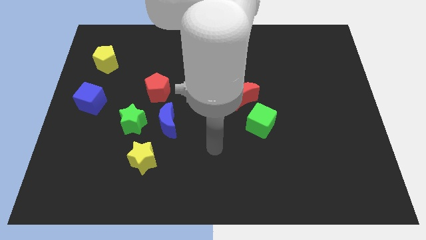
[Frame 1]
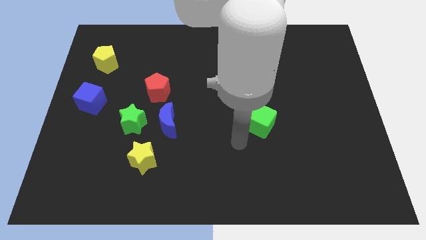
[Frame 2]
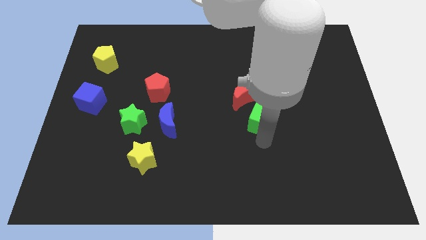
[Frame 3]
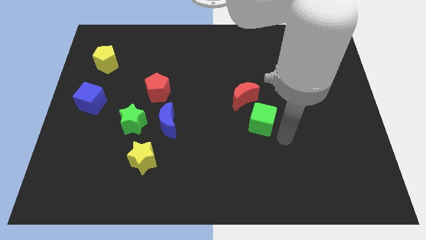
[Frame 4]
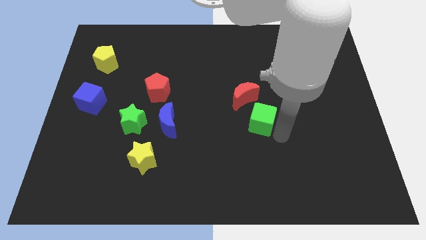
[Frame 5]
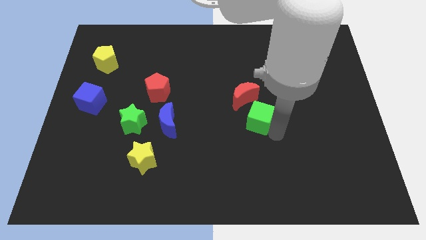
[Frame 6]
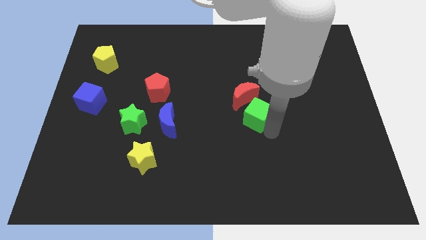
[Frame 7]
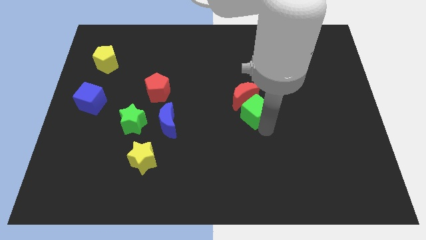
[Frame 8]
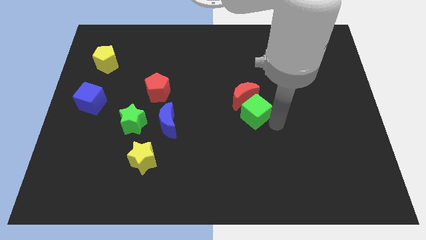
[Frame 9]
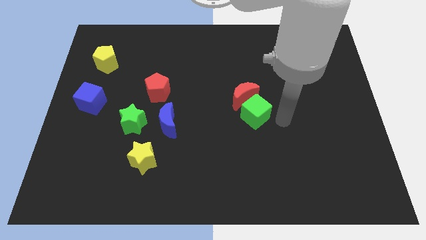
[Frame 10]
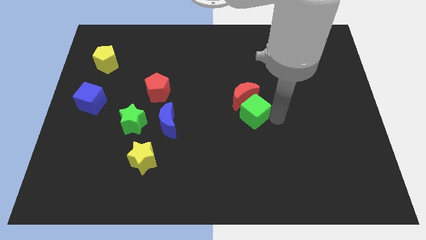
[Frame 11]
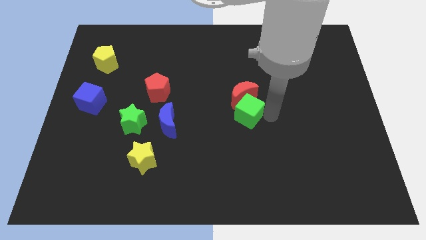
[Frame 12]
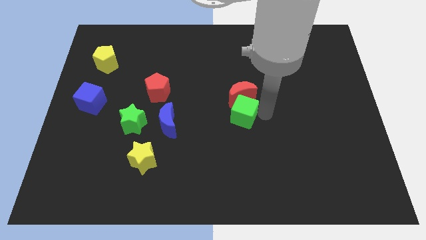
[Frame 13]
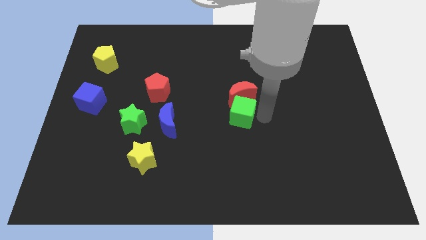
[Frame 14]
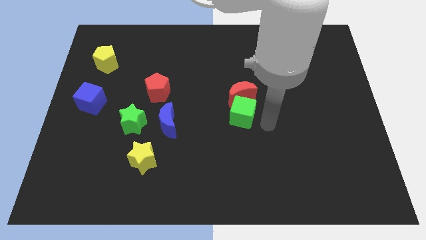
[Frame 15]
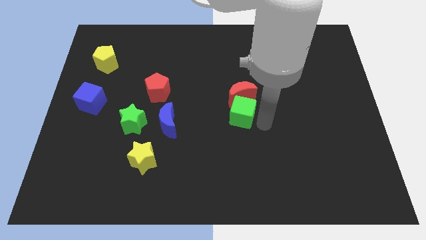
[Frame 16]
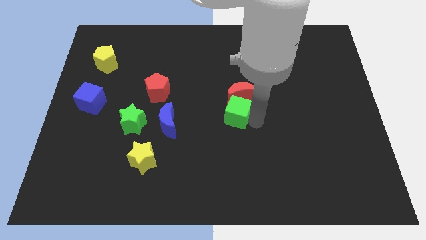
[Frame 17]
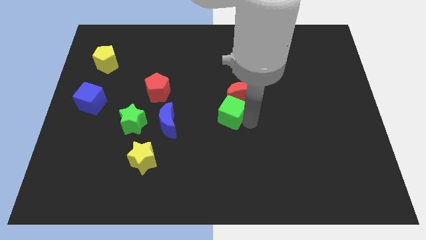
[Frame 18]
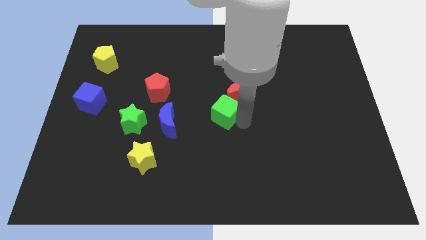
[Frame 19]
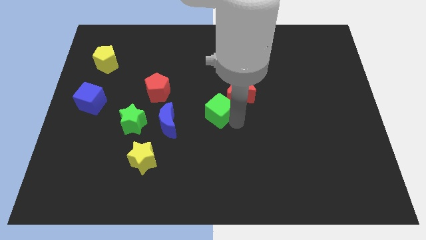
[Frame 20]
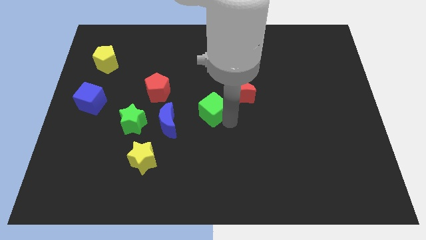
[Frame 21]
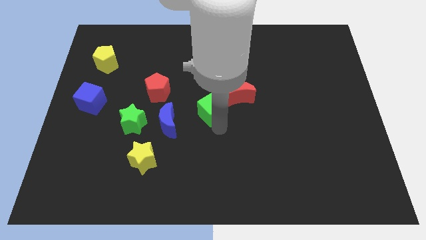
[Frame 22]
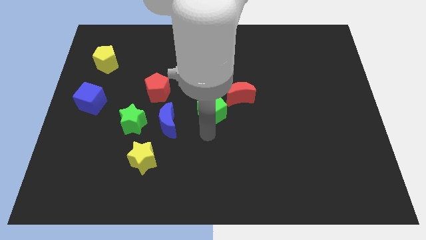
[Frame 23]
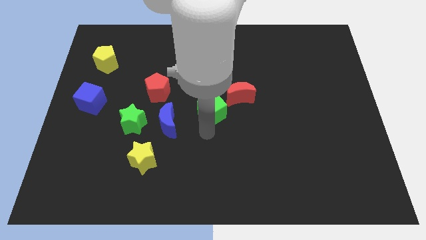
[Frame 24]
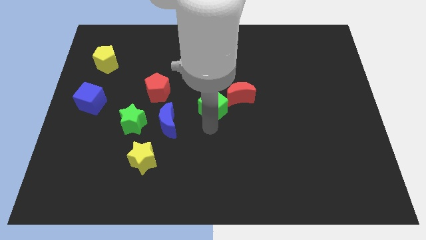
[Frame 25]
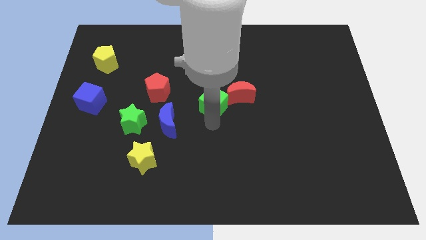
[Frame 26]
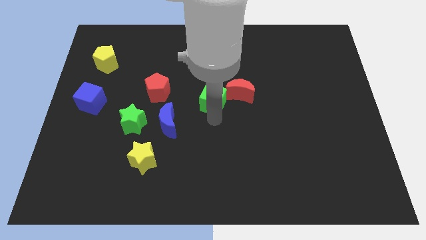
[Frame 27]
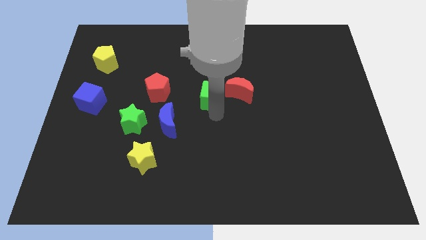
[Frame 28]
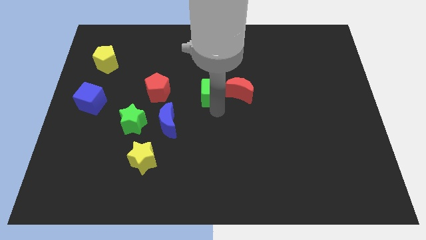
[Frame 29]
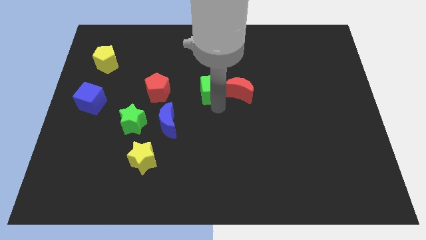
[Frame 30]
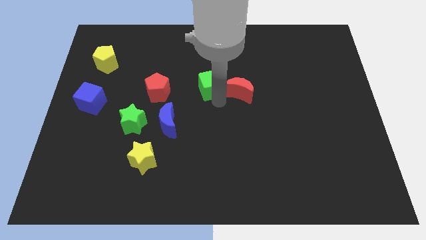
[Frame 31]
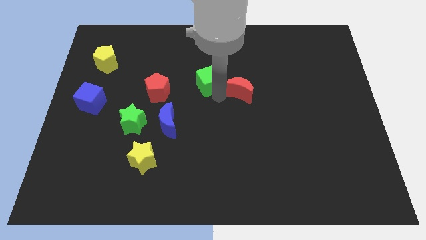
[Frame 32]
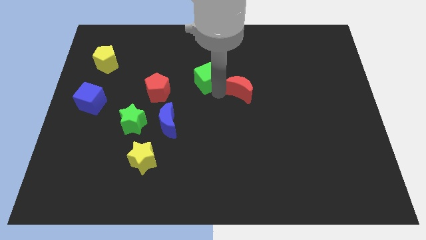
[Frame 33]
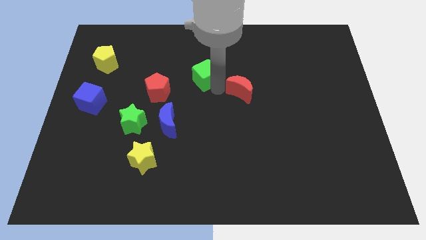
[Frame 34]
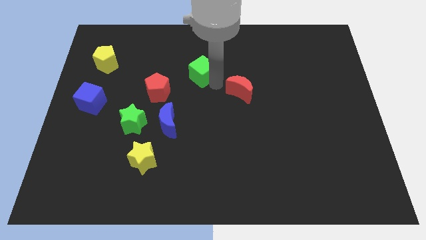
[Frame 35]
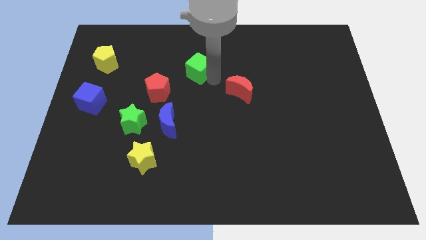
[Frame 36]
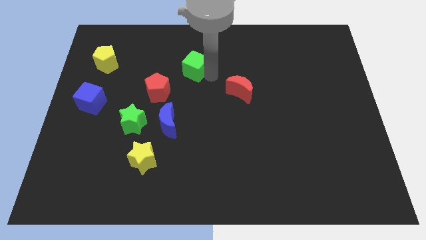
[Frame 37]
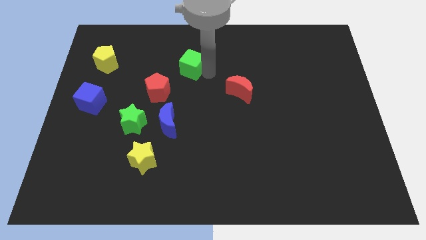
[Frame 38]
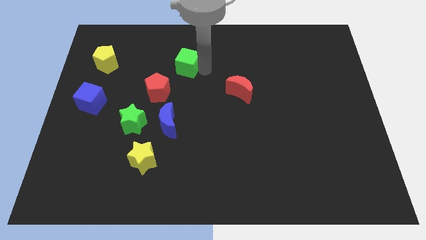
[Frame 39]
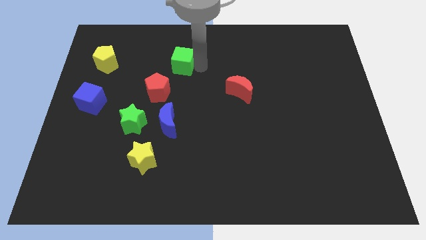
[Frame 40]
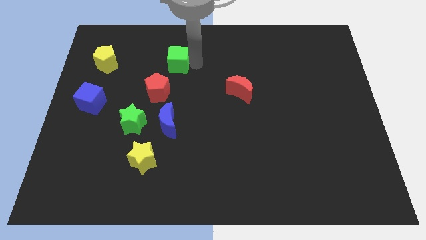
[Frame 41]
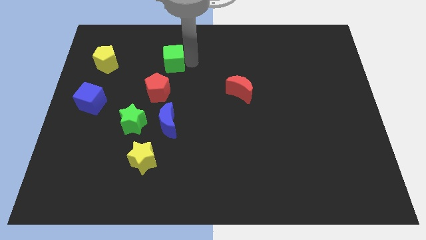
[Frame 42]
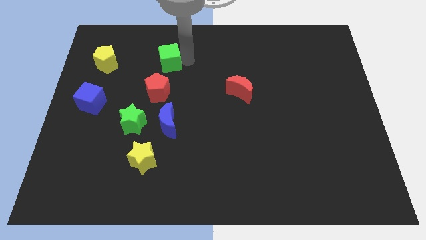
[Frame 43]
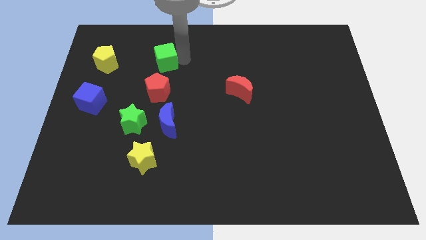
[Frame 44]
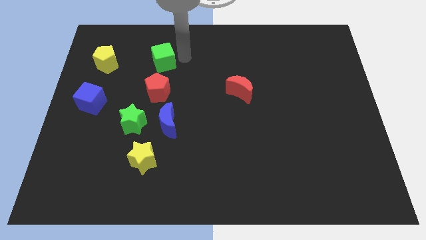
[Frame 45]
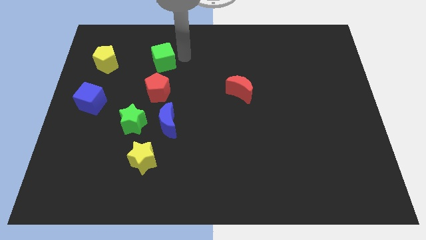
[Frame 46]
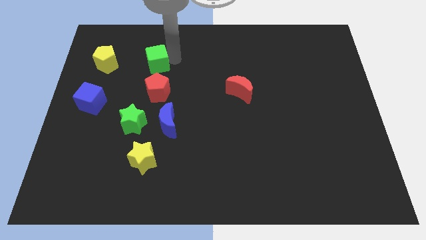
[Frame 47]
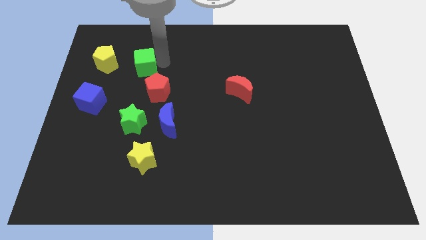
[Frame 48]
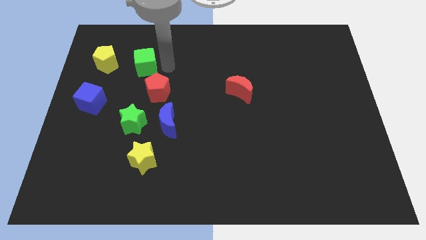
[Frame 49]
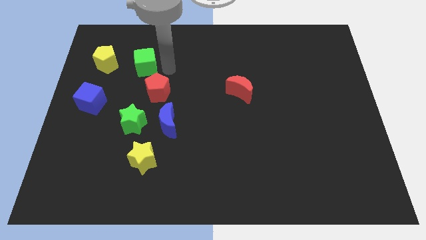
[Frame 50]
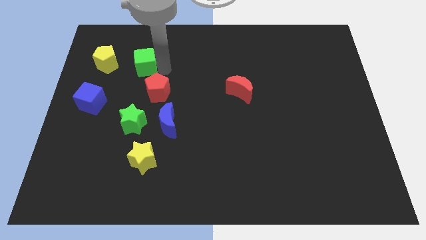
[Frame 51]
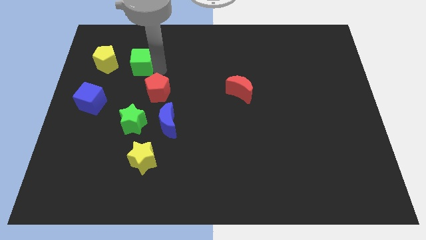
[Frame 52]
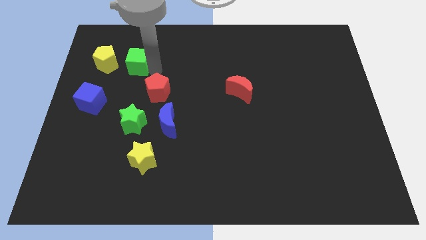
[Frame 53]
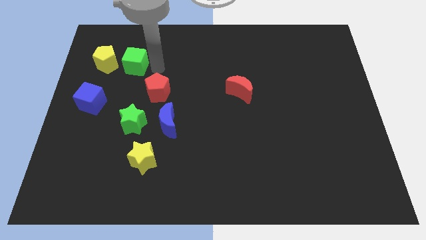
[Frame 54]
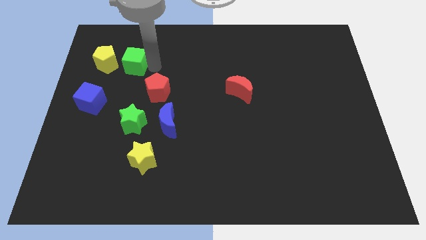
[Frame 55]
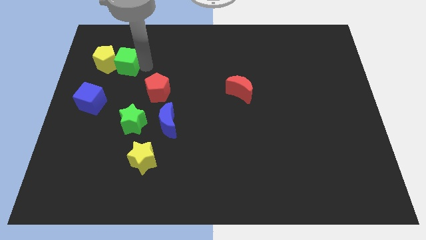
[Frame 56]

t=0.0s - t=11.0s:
slide the green cube close to the yellow pentagon

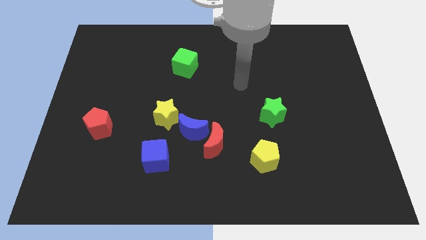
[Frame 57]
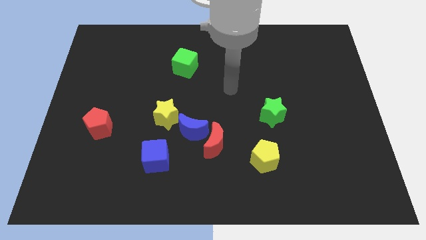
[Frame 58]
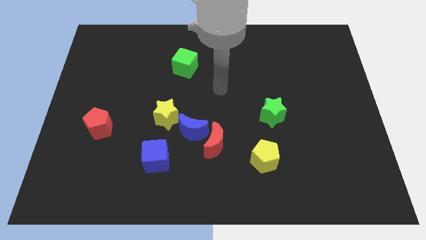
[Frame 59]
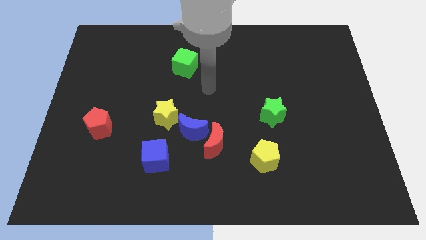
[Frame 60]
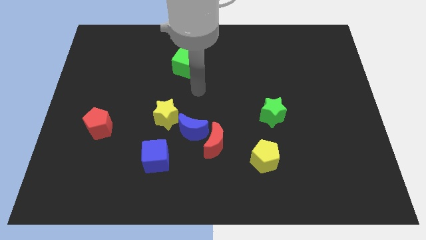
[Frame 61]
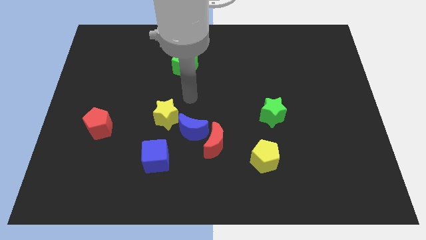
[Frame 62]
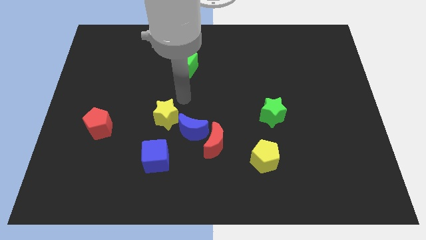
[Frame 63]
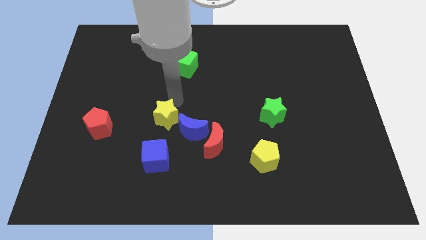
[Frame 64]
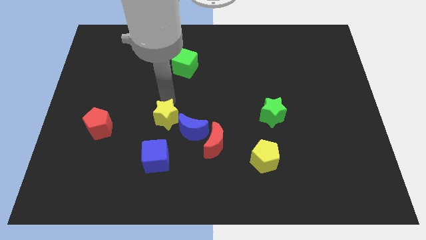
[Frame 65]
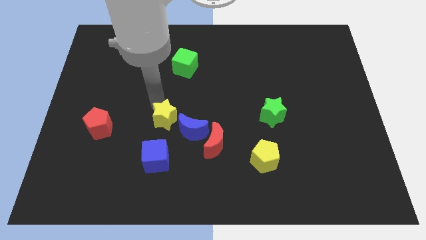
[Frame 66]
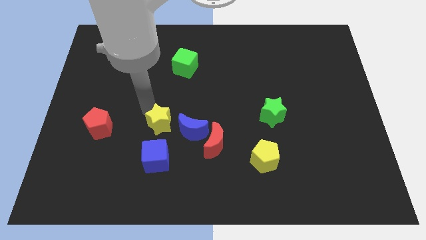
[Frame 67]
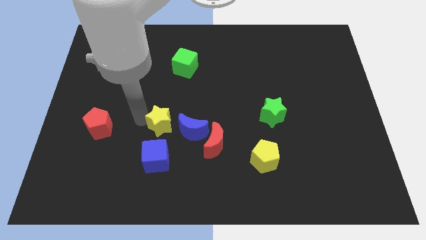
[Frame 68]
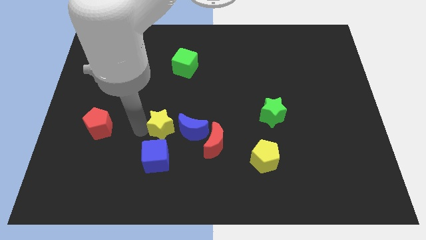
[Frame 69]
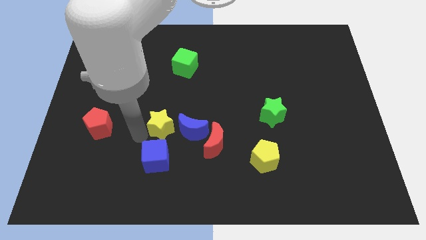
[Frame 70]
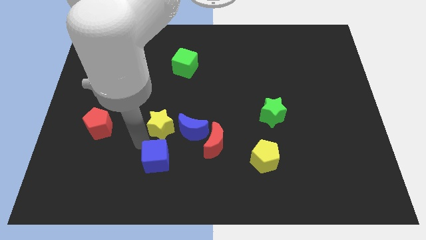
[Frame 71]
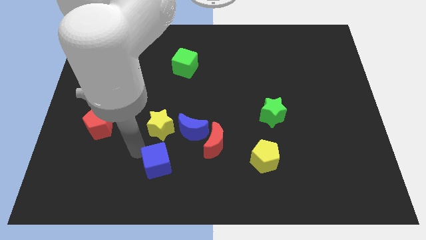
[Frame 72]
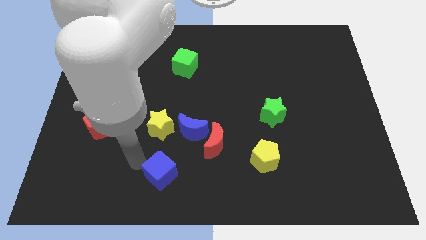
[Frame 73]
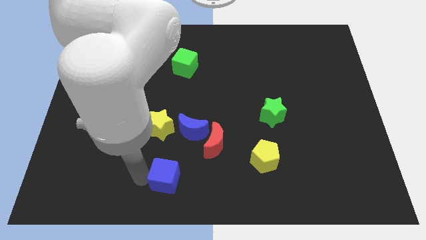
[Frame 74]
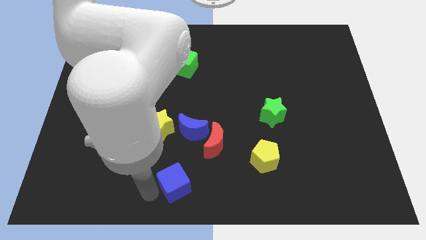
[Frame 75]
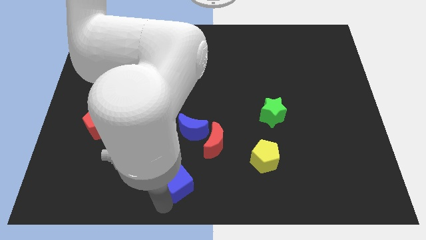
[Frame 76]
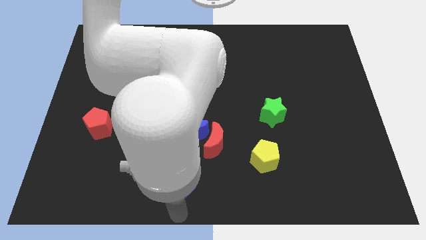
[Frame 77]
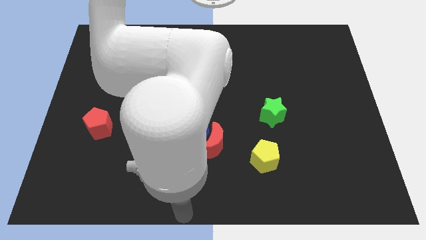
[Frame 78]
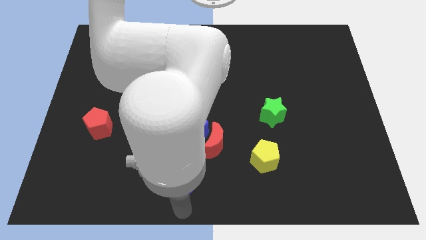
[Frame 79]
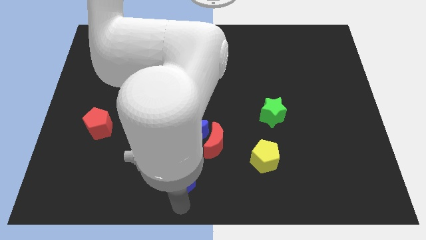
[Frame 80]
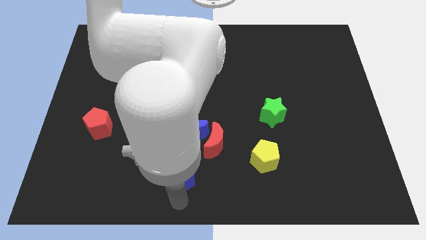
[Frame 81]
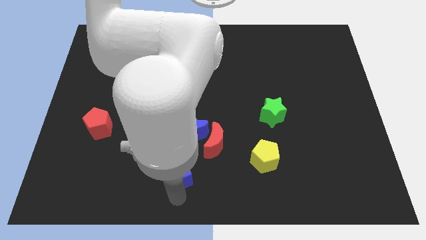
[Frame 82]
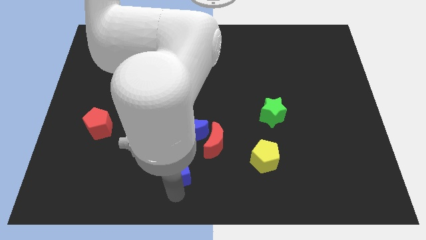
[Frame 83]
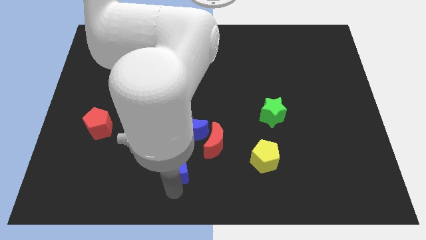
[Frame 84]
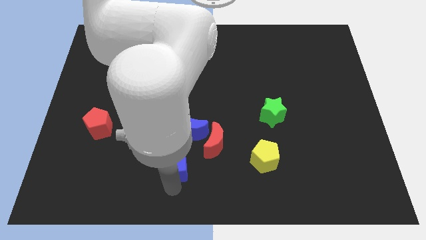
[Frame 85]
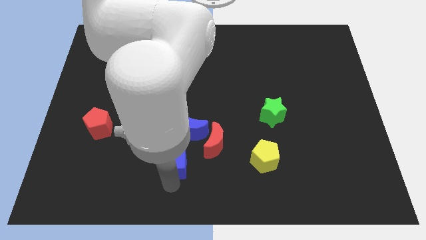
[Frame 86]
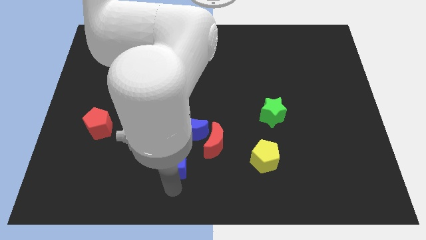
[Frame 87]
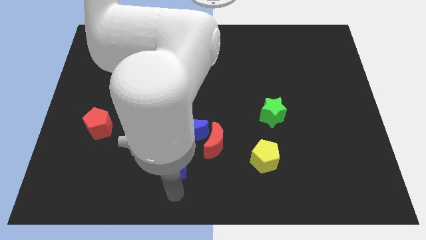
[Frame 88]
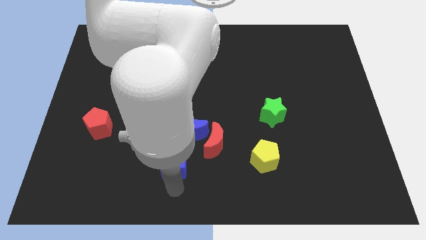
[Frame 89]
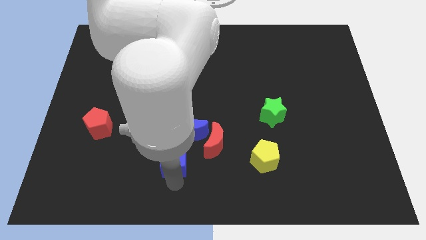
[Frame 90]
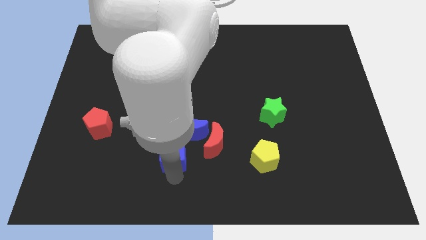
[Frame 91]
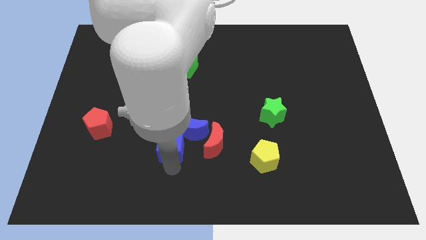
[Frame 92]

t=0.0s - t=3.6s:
slide the blue cube towards the blue moon
